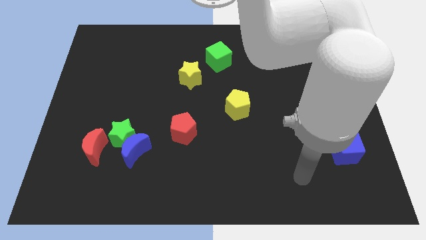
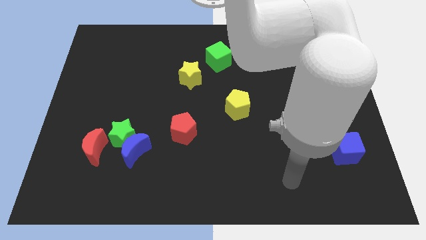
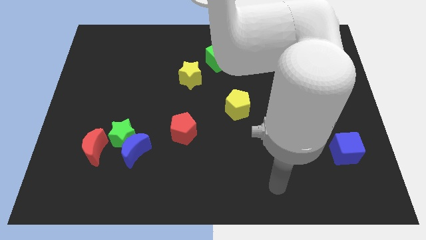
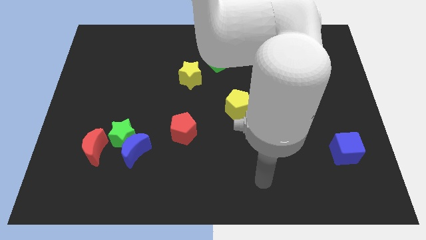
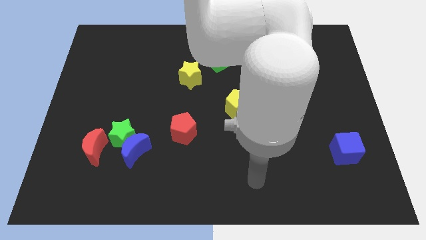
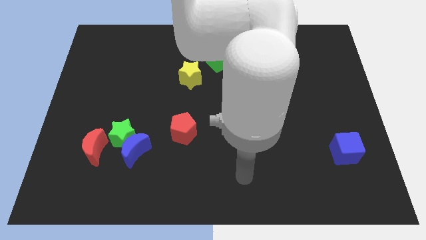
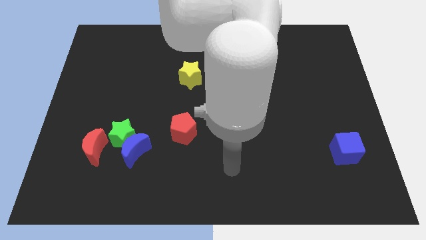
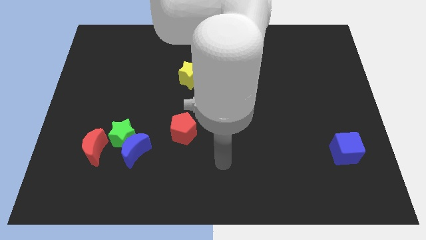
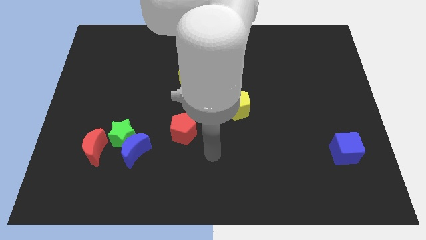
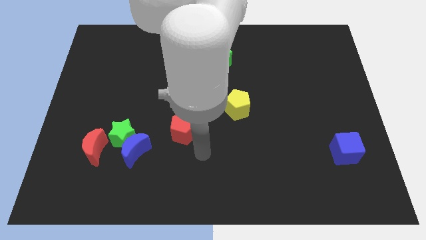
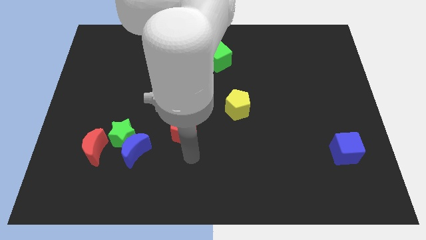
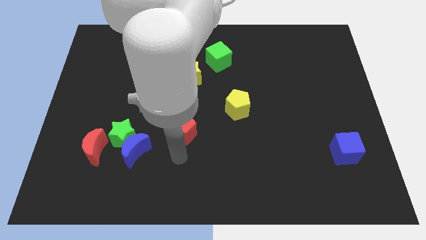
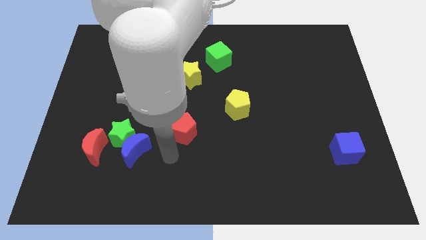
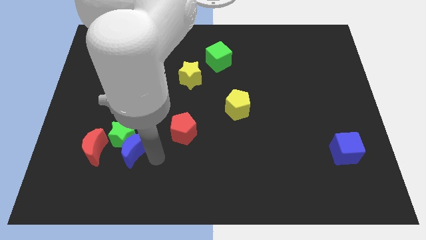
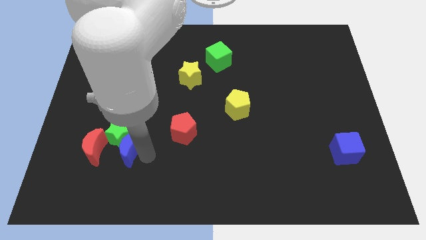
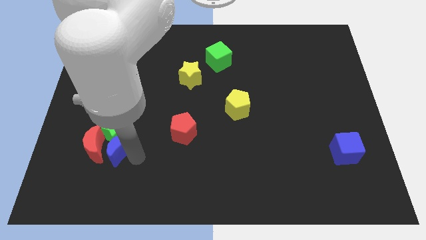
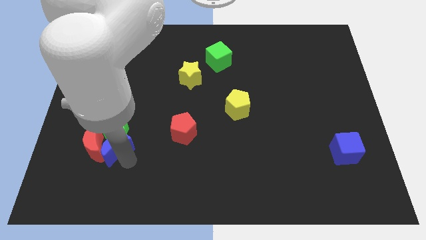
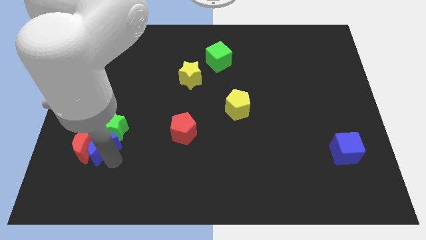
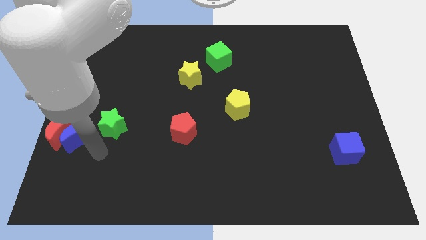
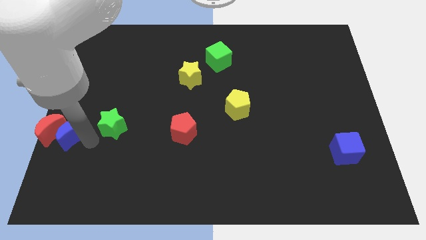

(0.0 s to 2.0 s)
move the green star away from the blue moon and red moon

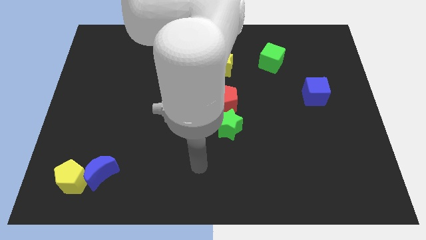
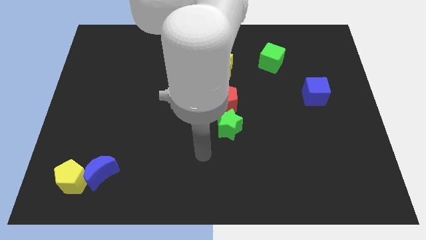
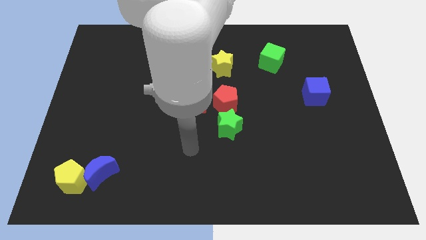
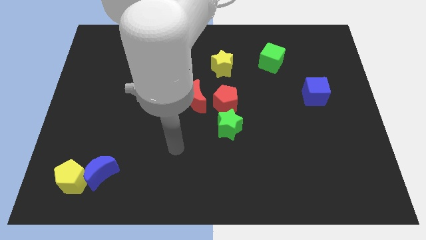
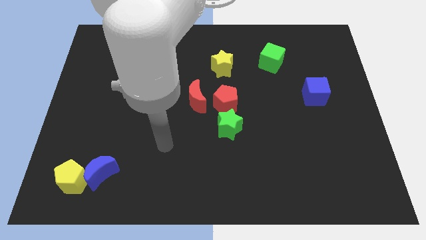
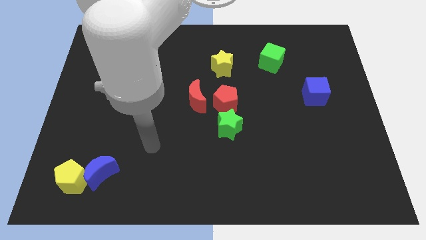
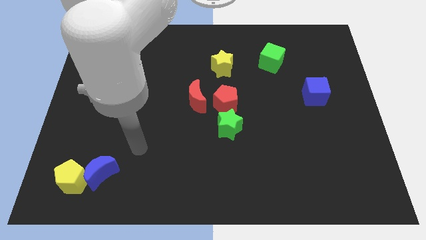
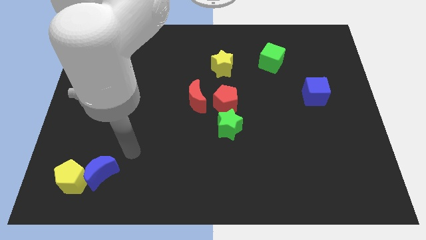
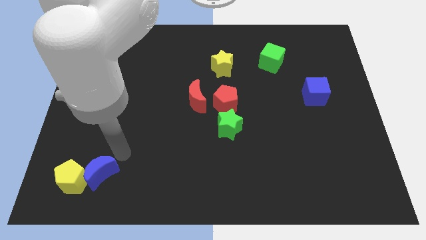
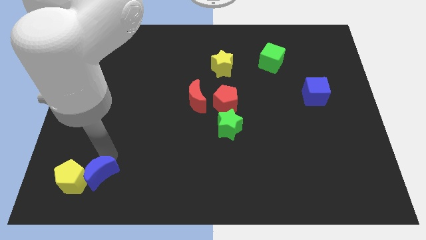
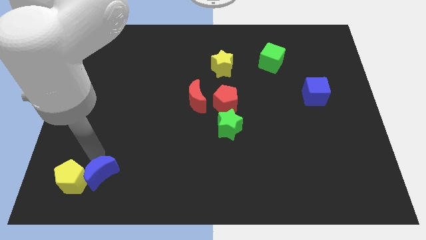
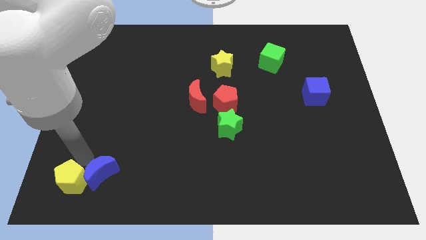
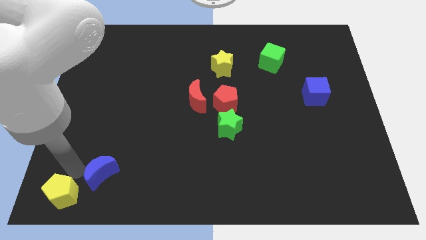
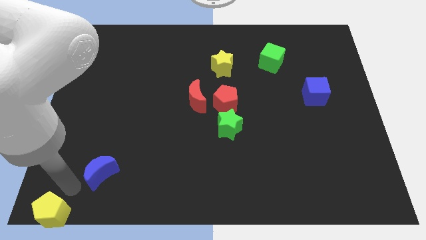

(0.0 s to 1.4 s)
separate the blue moon from the yellow pentagon

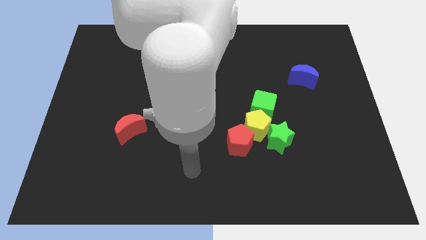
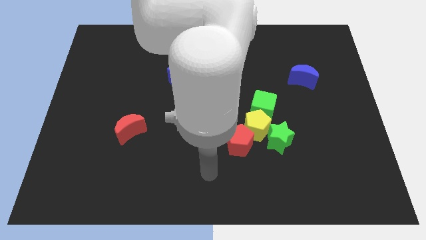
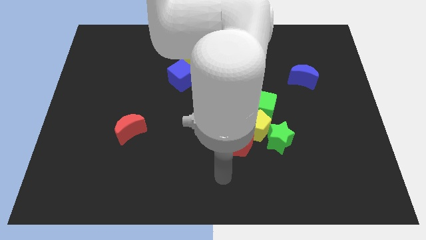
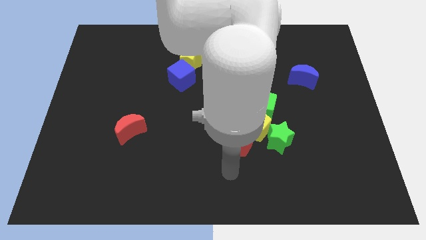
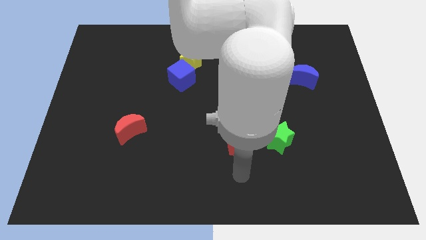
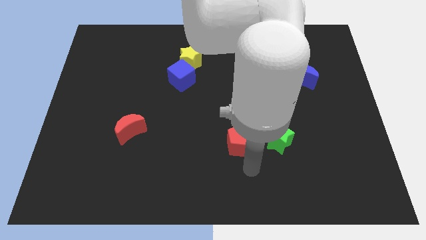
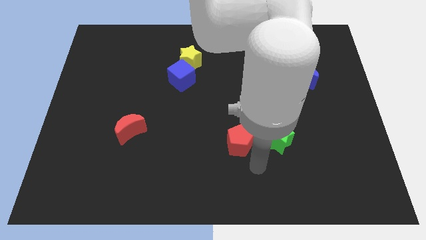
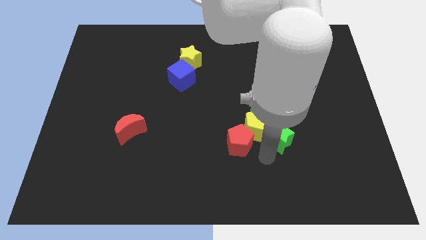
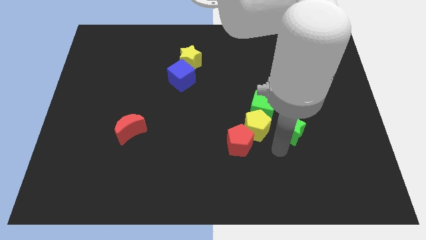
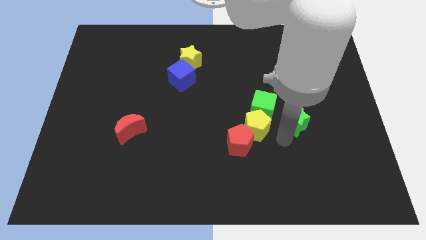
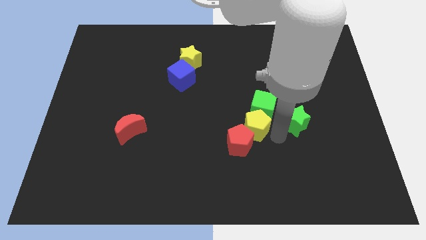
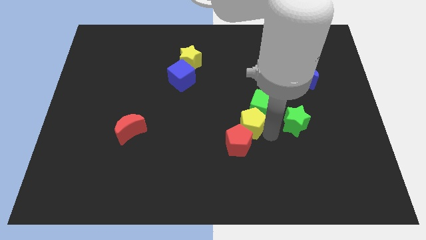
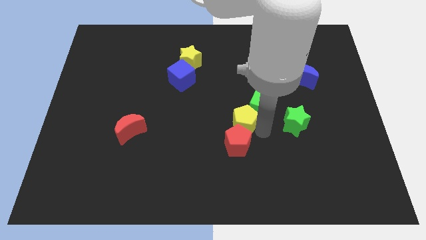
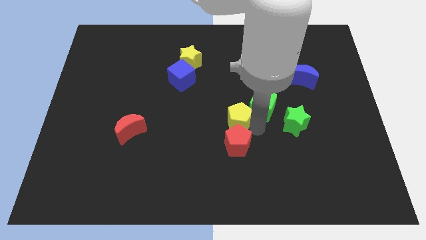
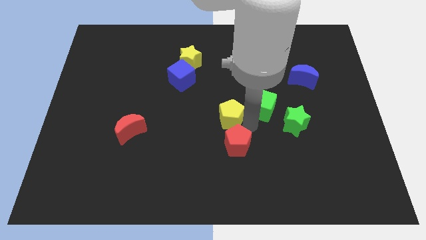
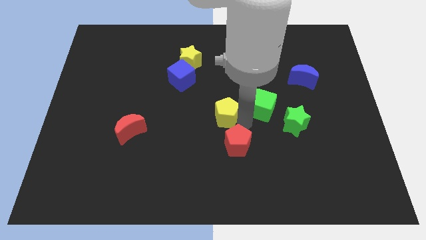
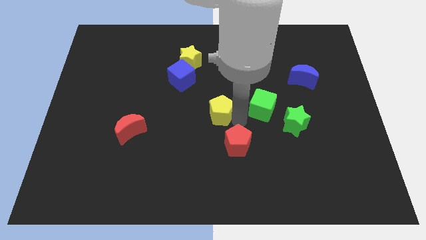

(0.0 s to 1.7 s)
pull the yellow pentagon apart from the group of blocks

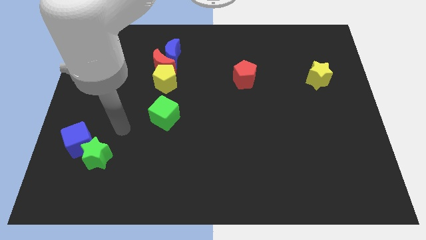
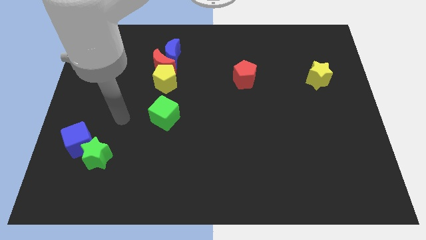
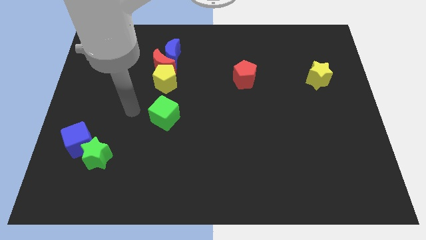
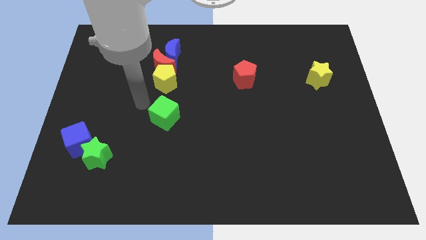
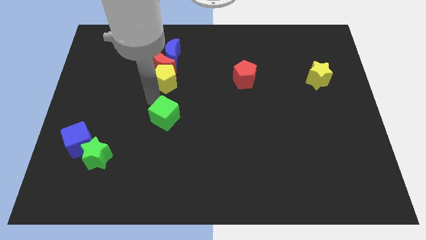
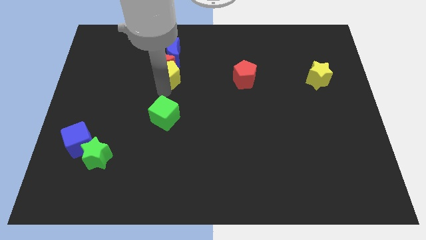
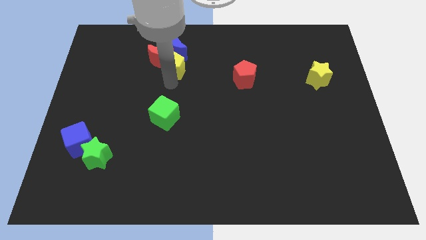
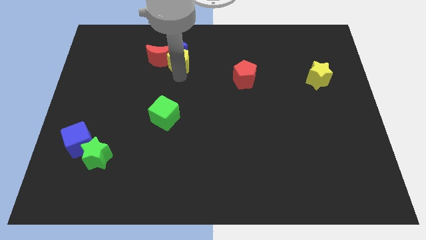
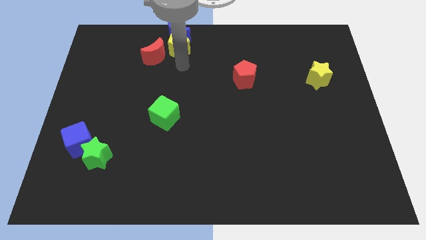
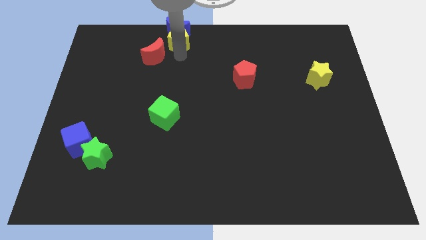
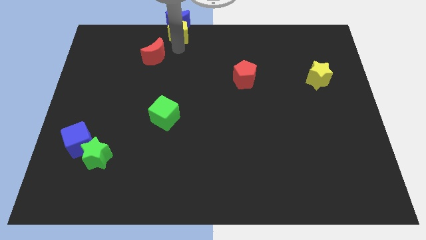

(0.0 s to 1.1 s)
move the red moon away from the blue moon and yellow pentagon

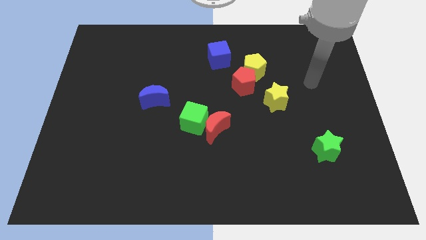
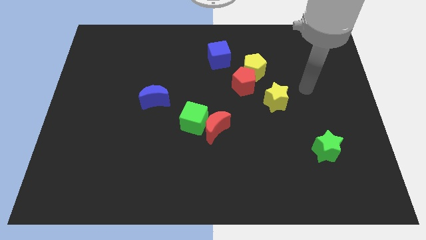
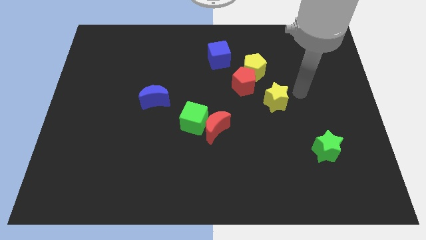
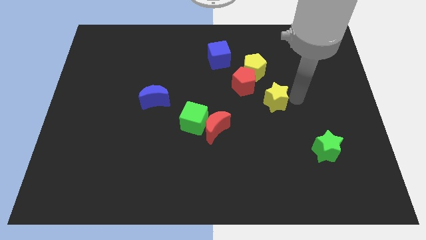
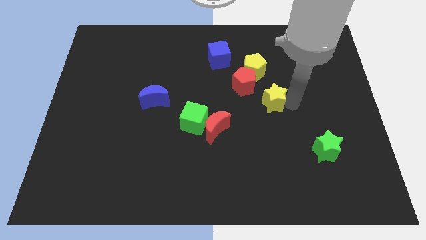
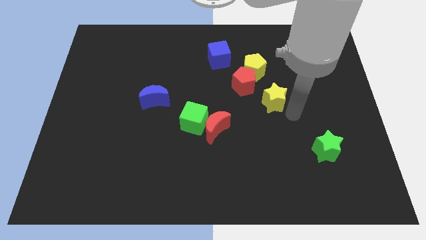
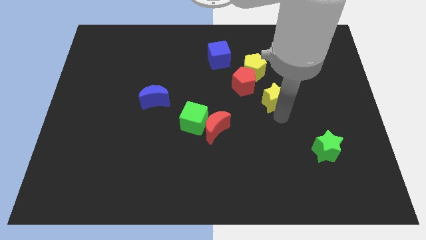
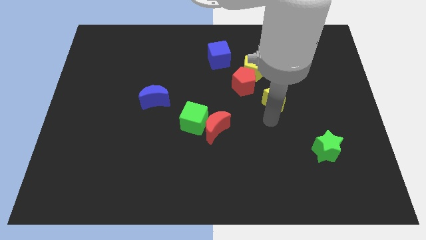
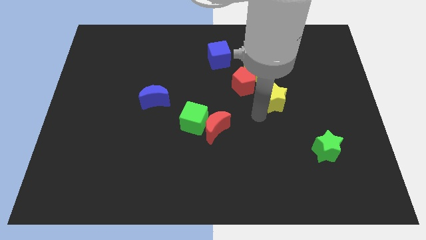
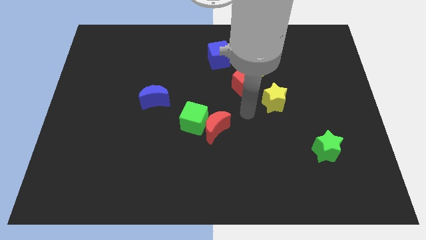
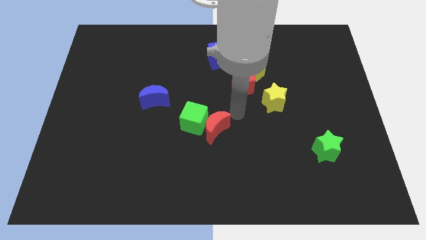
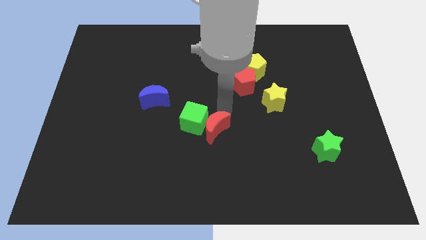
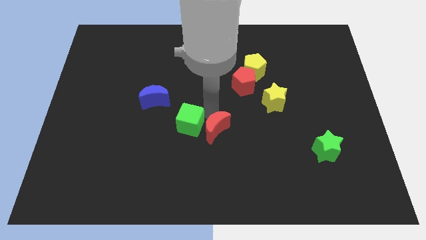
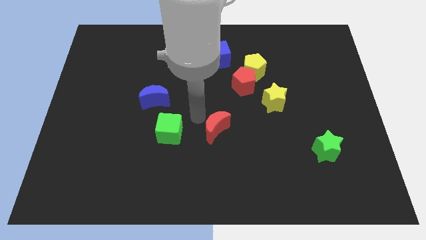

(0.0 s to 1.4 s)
move the red moon away from the green cube

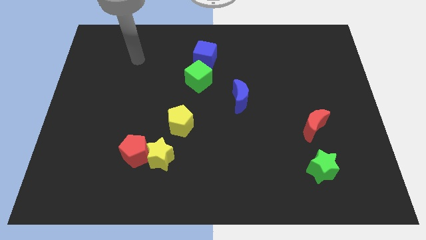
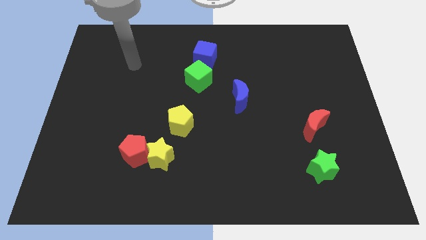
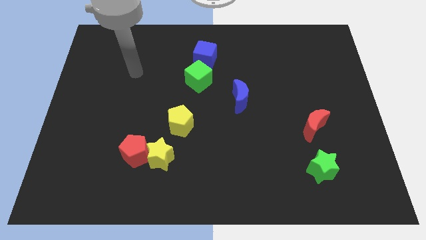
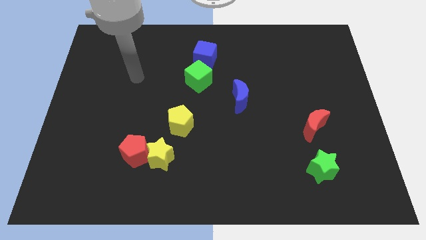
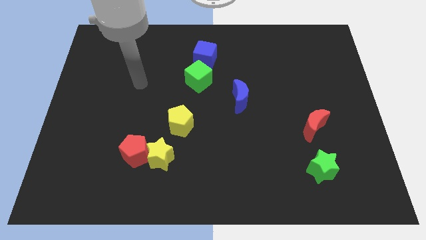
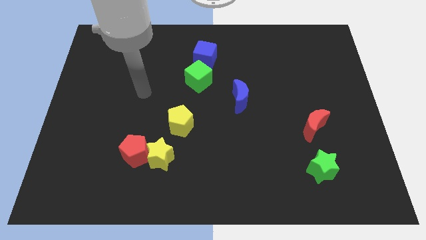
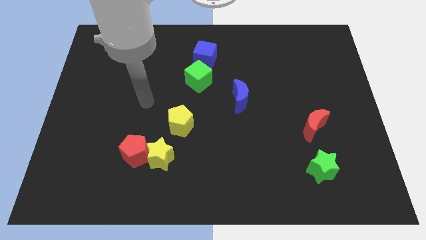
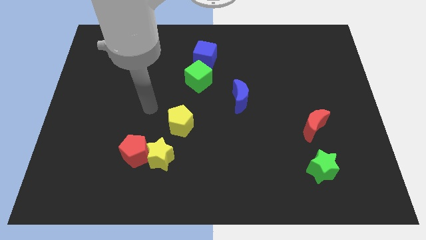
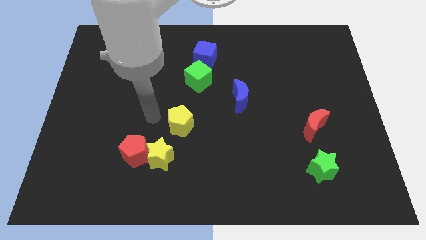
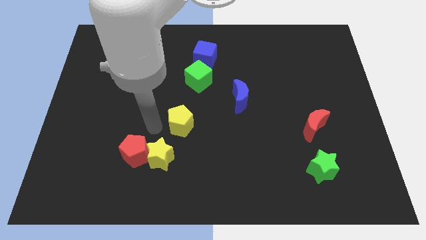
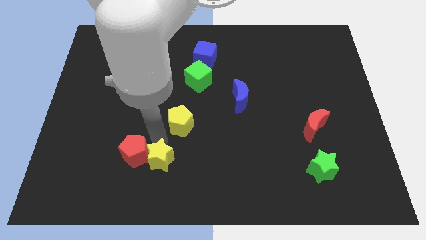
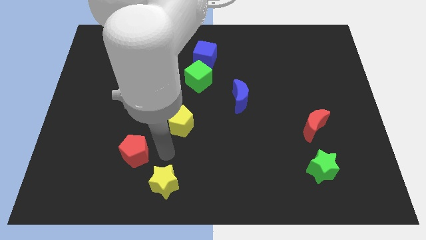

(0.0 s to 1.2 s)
move the red pentagon away from the yellow star

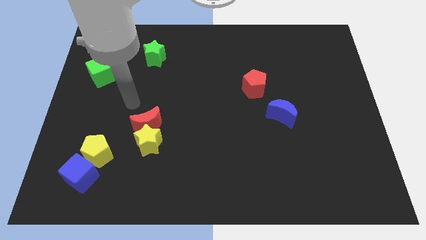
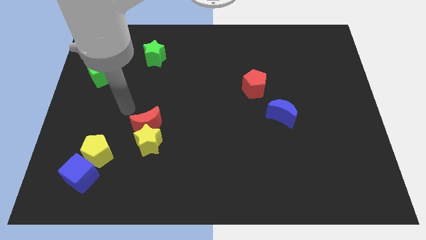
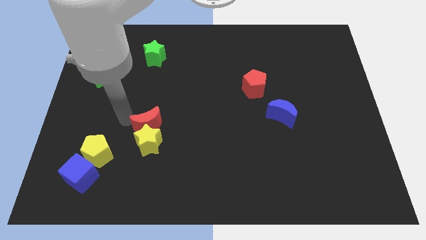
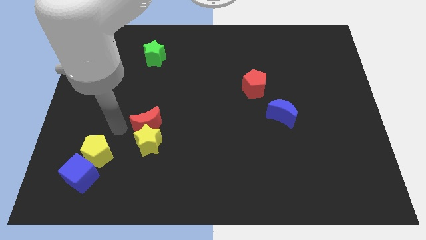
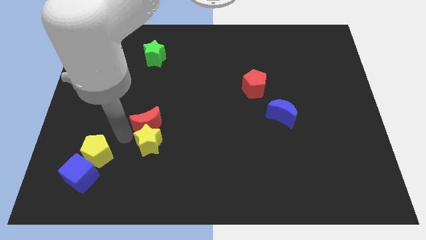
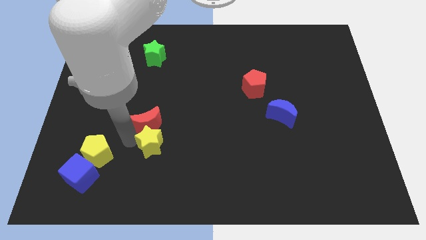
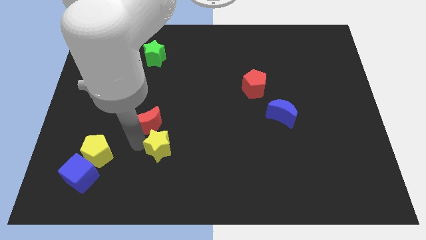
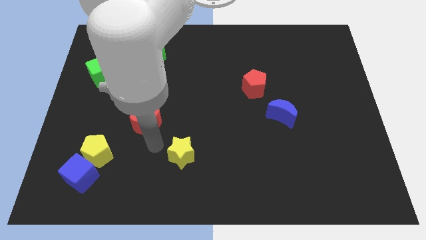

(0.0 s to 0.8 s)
separate the red moon from the yellow star
